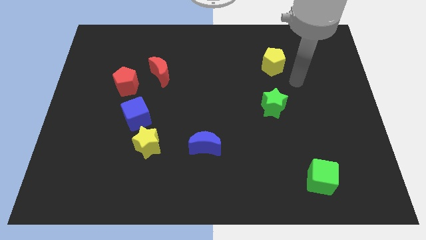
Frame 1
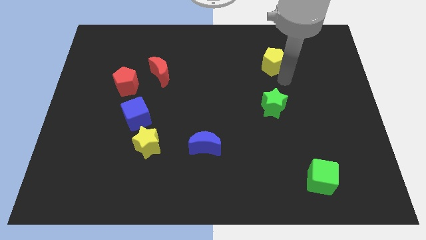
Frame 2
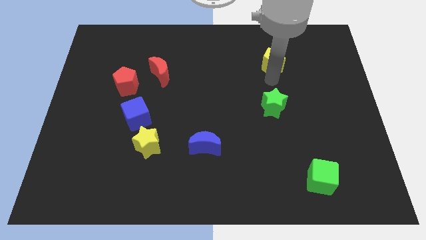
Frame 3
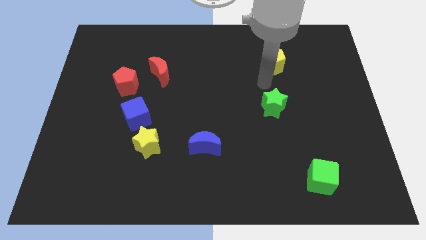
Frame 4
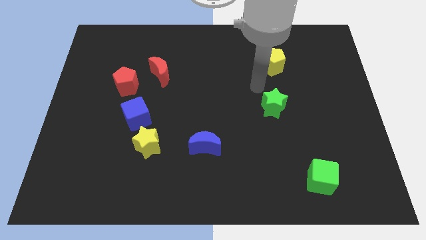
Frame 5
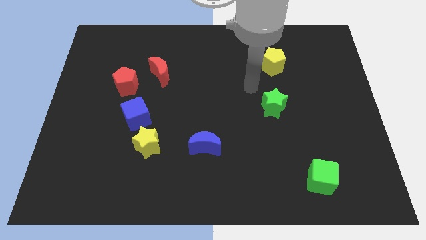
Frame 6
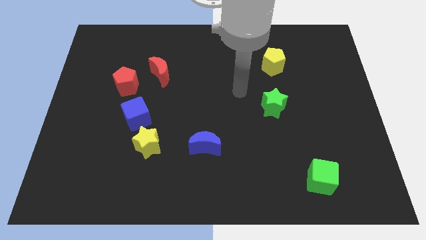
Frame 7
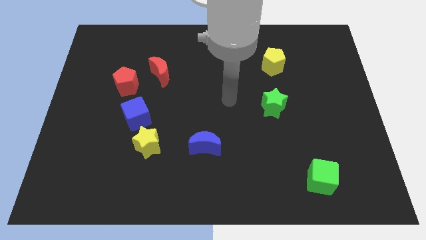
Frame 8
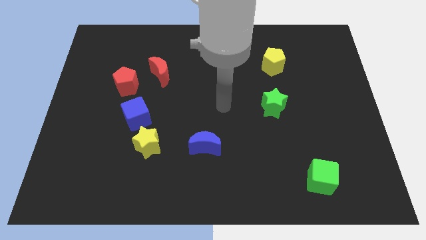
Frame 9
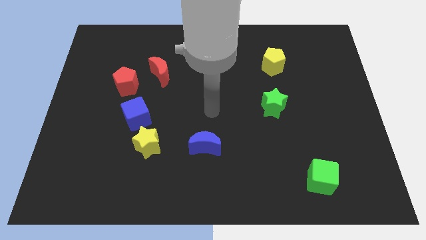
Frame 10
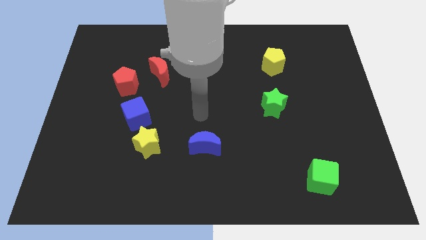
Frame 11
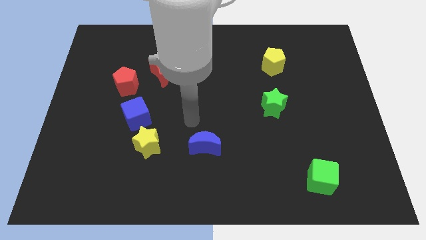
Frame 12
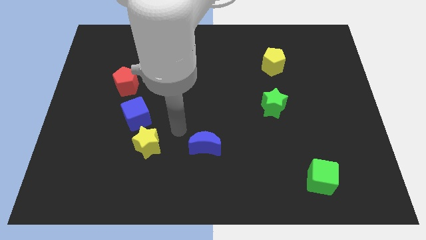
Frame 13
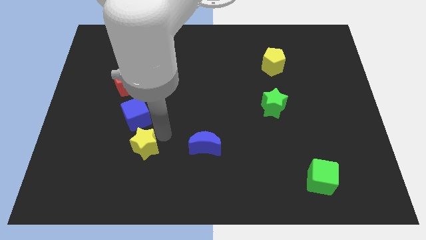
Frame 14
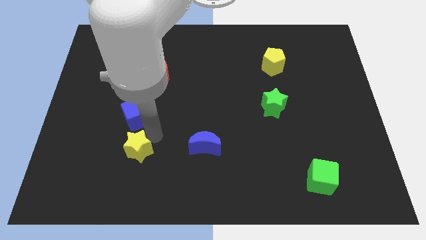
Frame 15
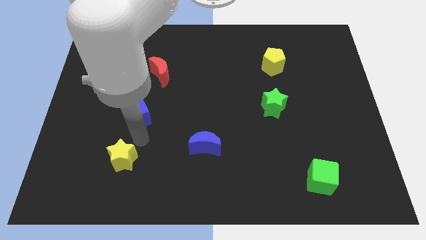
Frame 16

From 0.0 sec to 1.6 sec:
separate the blue cube from the yellow star

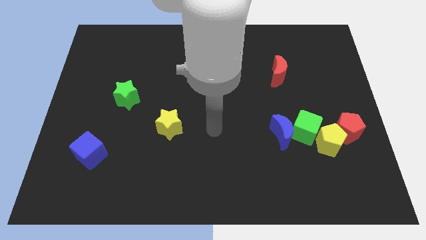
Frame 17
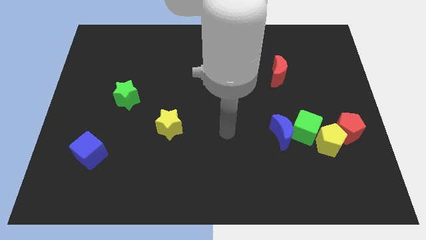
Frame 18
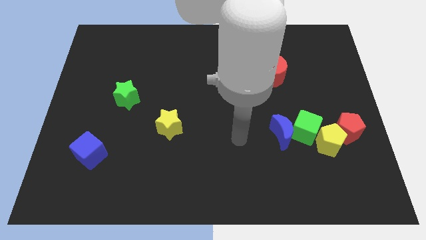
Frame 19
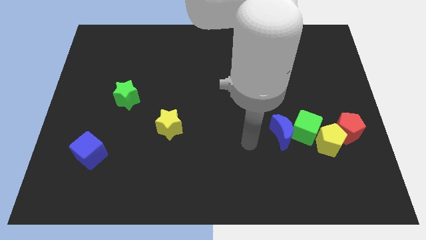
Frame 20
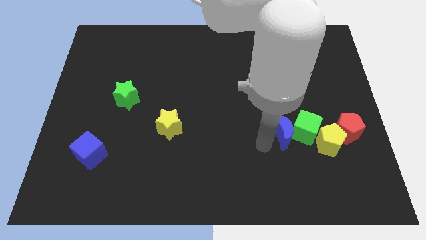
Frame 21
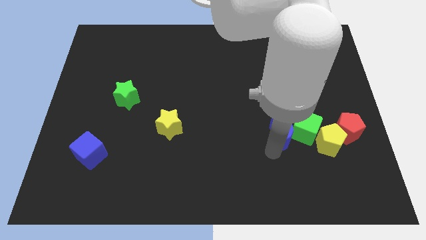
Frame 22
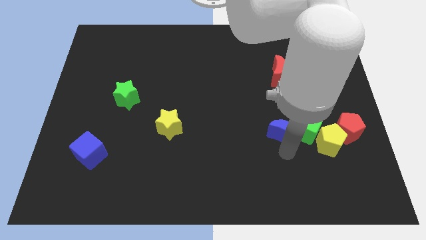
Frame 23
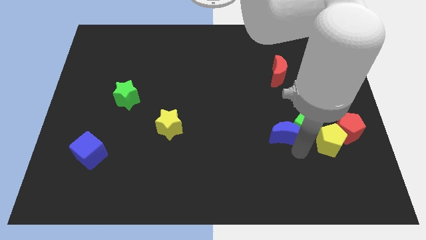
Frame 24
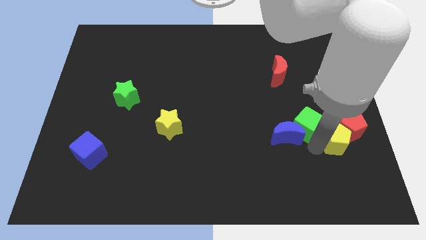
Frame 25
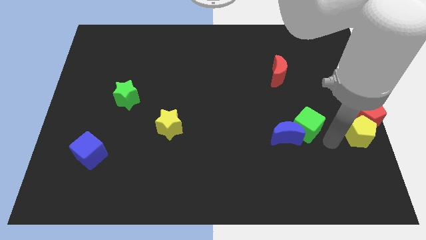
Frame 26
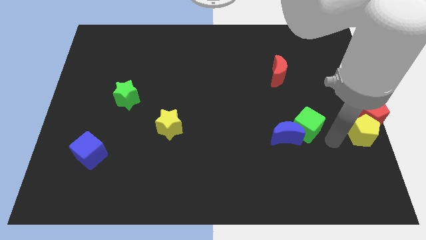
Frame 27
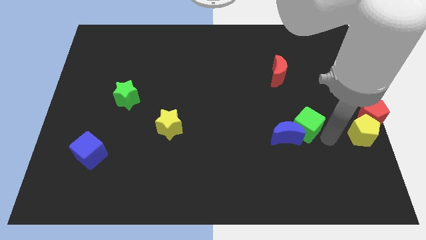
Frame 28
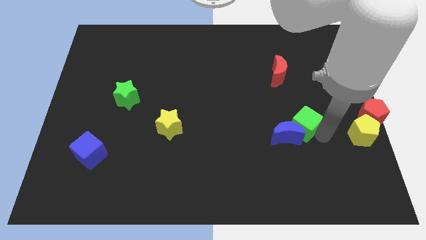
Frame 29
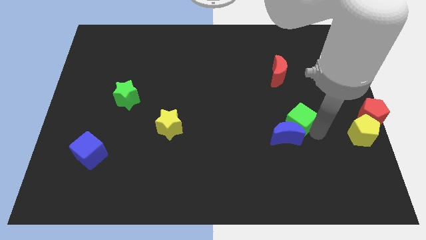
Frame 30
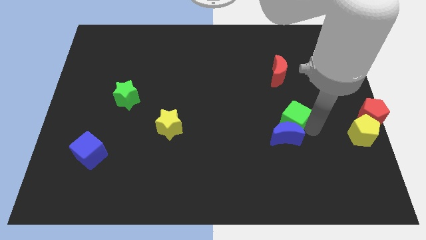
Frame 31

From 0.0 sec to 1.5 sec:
move the green cube away from the blue moon, yellow pentagon, and red pentagon

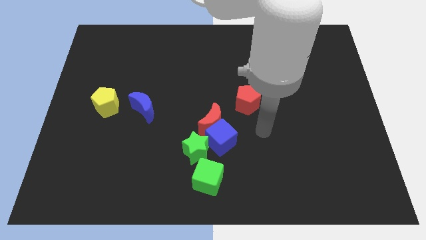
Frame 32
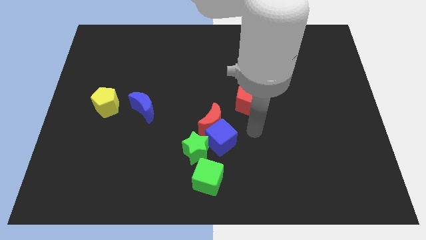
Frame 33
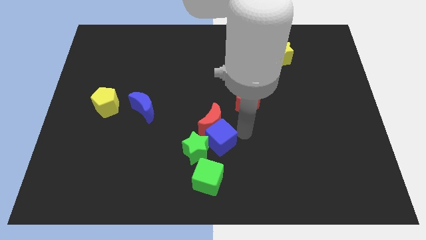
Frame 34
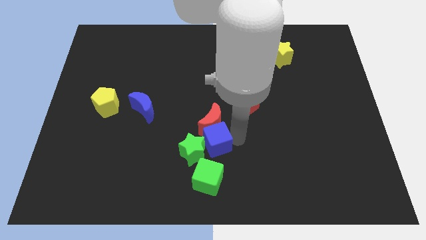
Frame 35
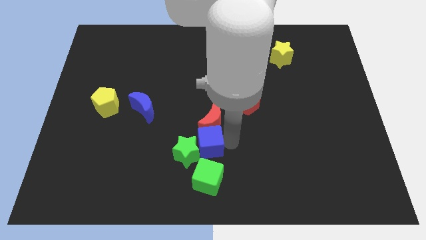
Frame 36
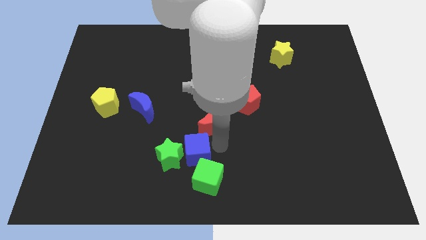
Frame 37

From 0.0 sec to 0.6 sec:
pull the red moon apart from the blue cube and green star

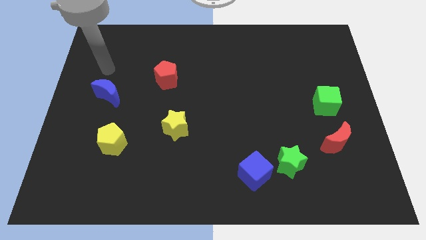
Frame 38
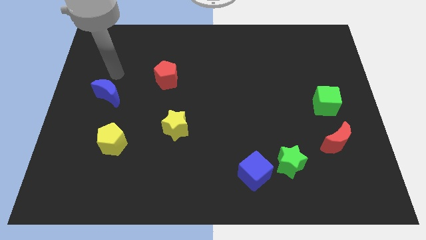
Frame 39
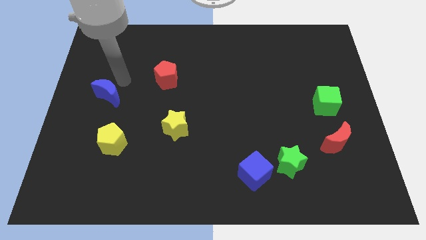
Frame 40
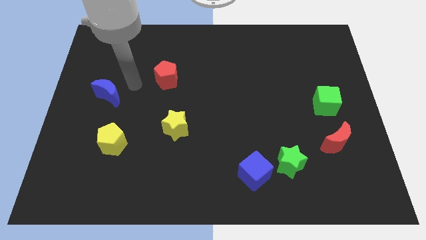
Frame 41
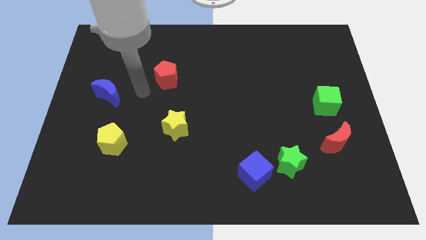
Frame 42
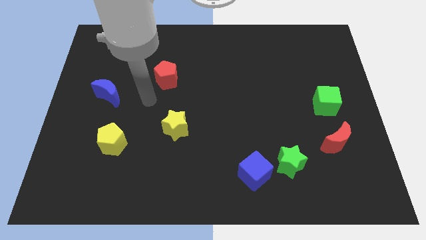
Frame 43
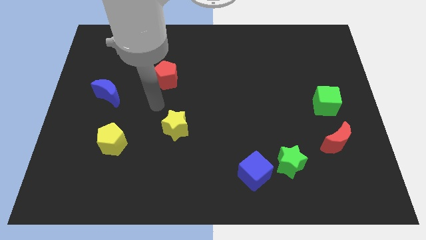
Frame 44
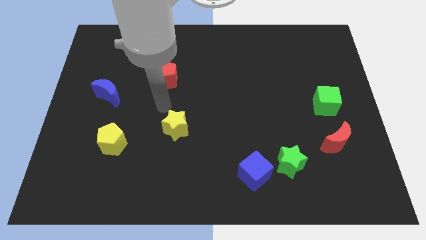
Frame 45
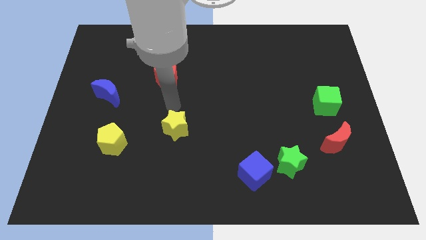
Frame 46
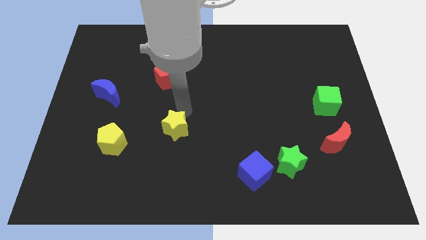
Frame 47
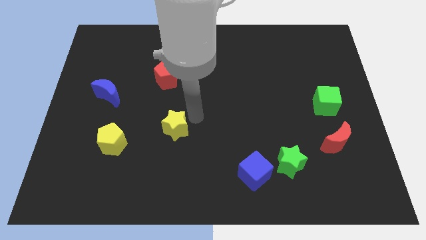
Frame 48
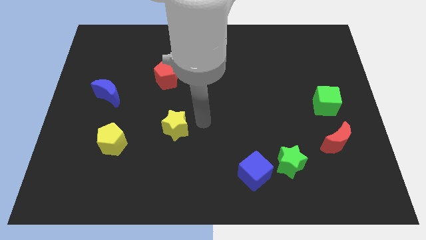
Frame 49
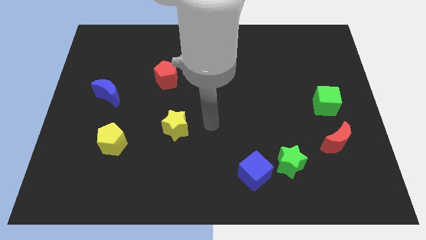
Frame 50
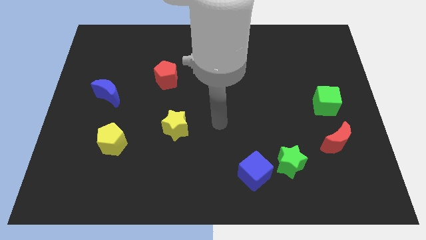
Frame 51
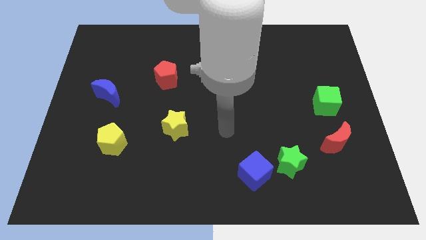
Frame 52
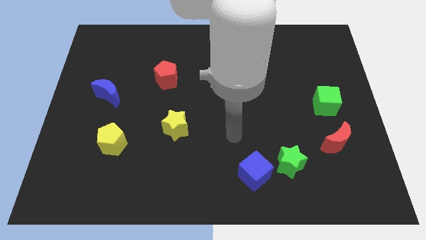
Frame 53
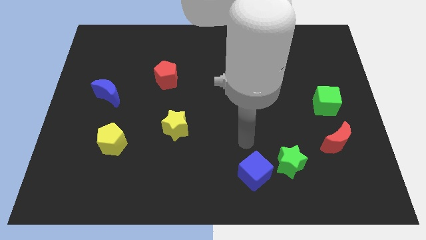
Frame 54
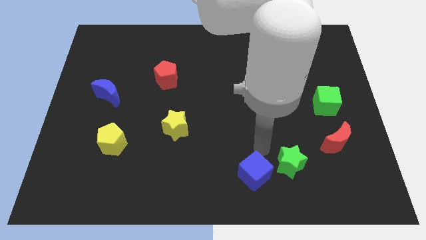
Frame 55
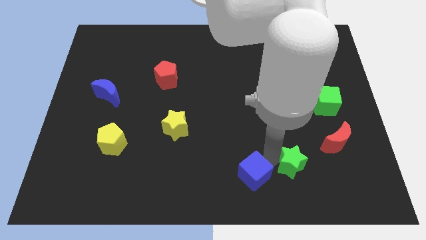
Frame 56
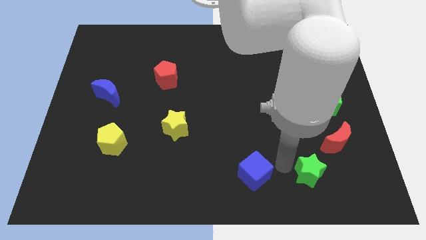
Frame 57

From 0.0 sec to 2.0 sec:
pull the blue cube apart from the green star

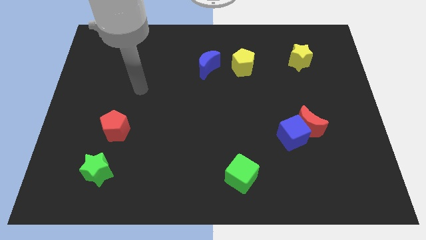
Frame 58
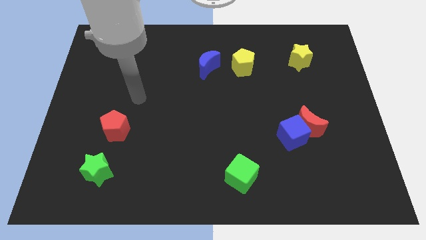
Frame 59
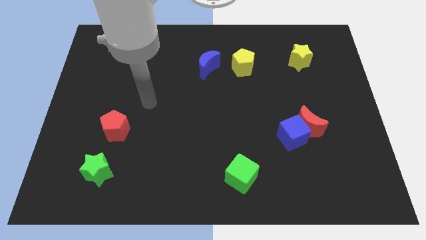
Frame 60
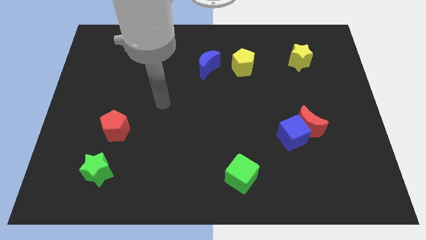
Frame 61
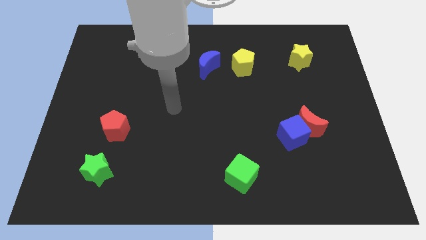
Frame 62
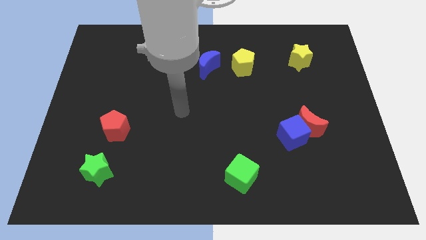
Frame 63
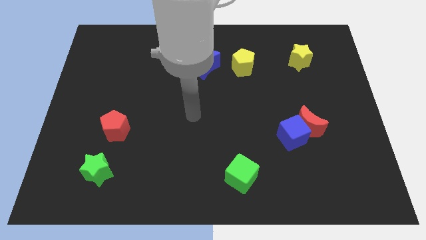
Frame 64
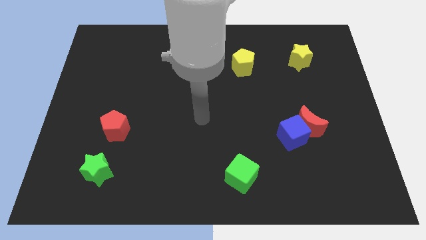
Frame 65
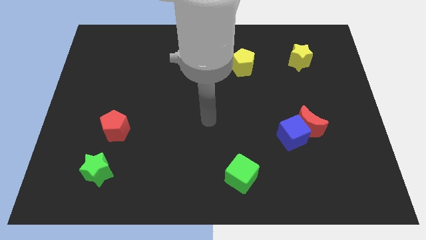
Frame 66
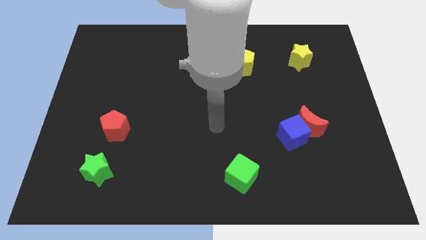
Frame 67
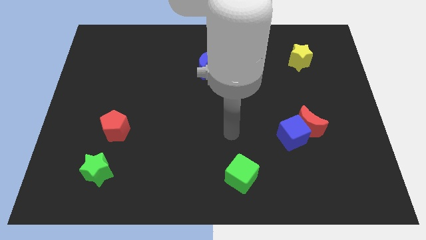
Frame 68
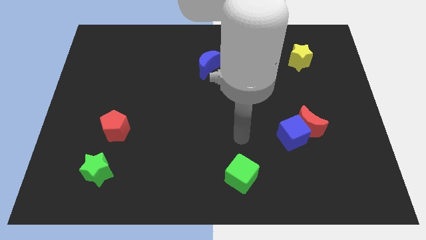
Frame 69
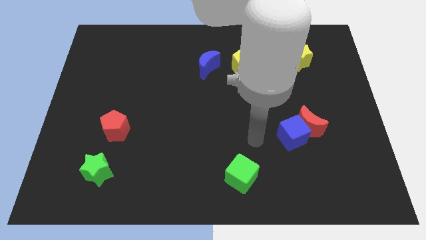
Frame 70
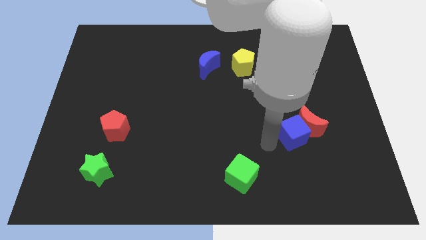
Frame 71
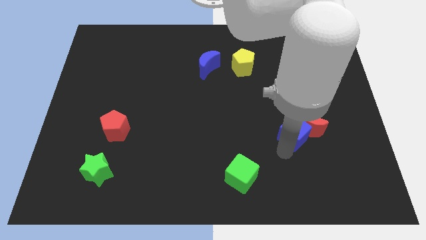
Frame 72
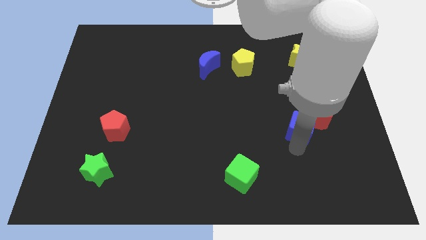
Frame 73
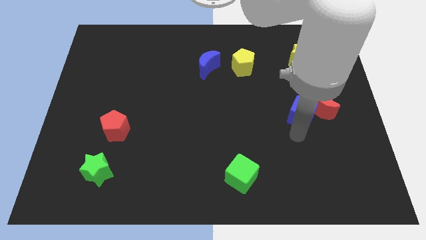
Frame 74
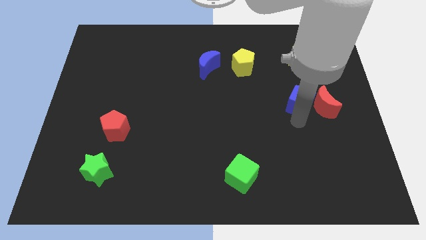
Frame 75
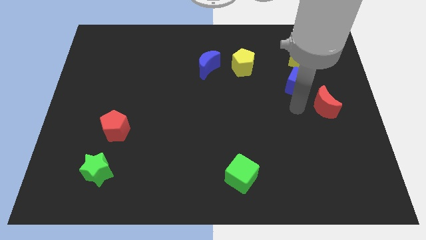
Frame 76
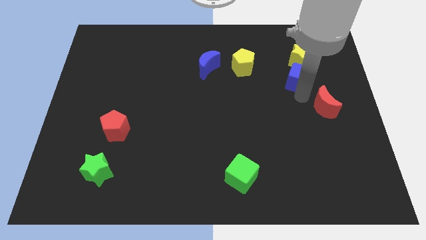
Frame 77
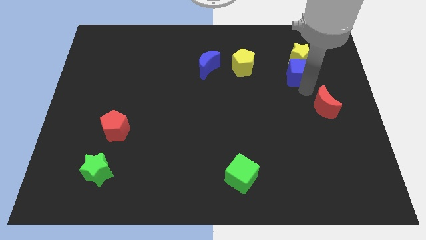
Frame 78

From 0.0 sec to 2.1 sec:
pull the red moon apart from the blue cube

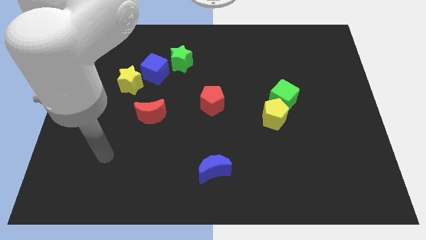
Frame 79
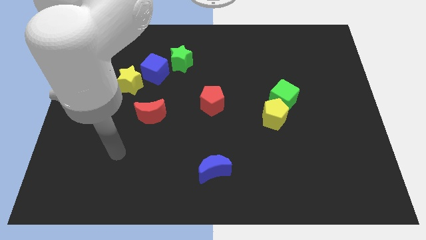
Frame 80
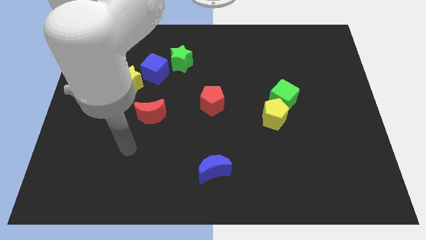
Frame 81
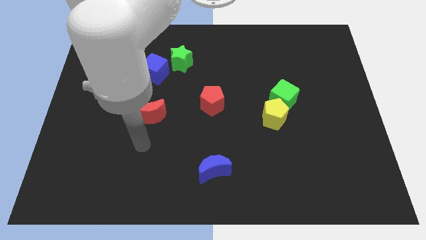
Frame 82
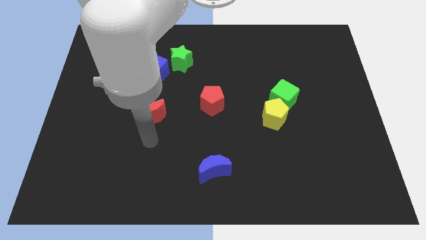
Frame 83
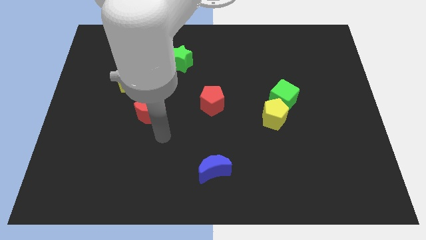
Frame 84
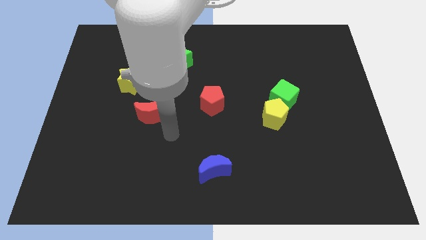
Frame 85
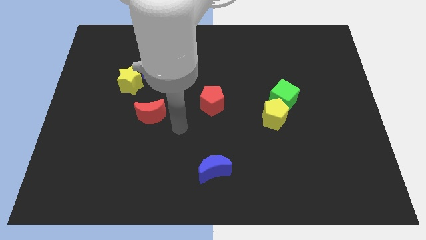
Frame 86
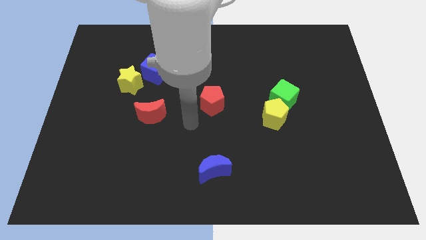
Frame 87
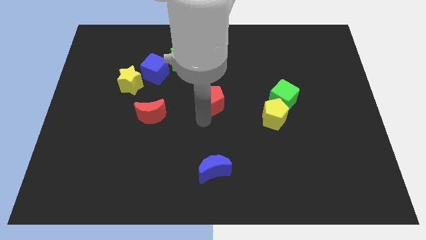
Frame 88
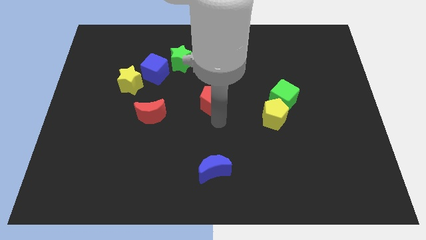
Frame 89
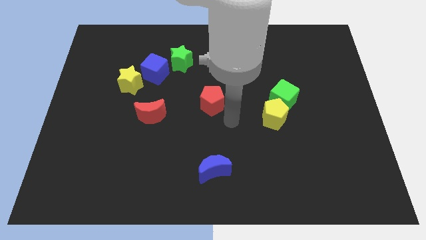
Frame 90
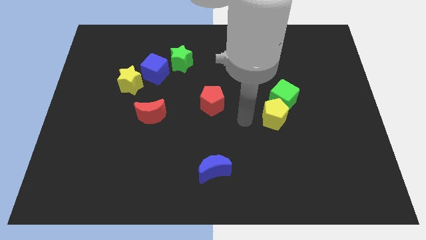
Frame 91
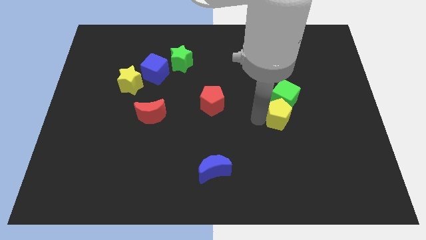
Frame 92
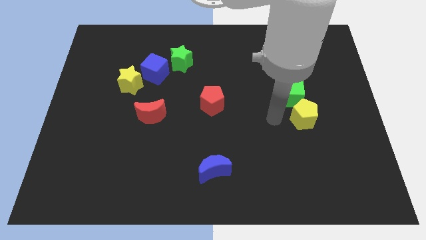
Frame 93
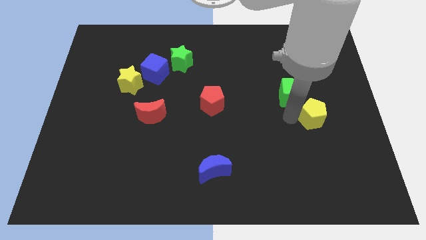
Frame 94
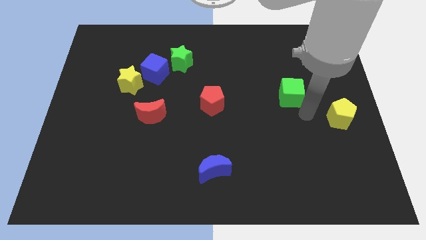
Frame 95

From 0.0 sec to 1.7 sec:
move the green cube away from the yellow pentagon
